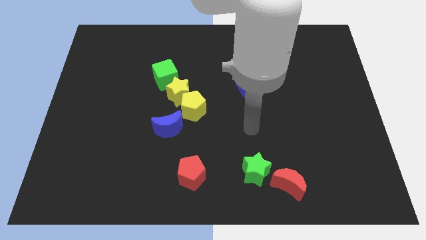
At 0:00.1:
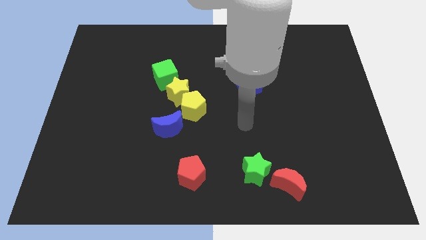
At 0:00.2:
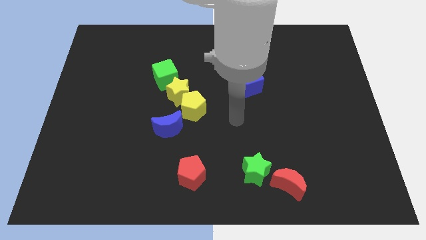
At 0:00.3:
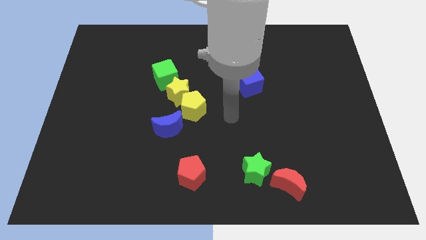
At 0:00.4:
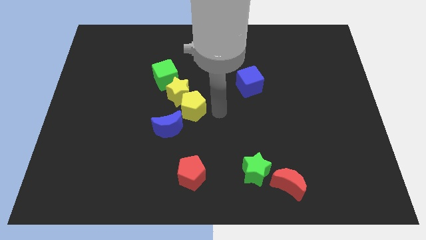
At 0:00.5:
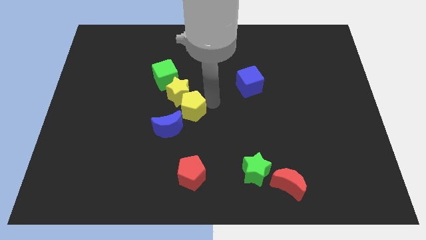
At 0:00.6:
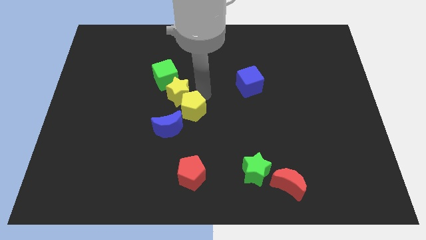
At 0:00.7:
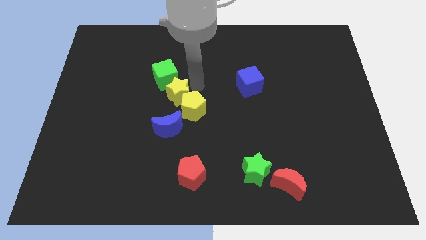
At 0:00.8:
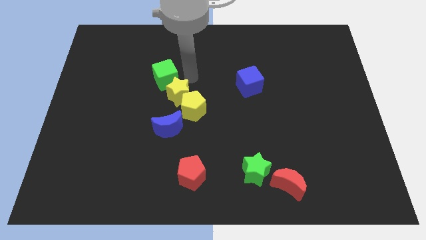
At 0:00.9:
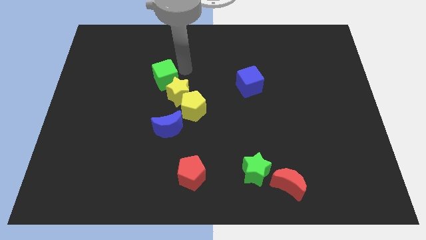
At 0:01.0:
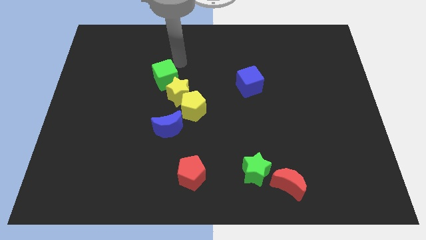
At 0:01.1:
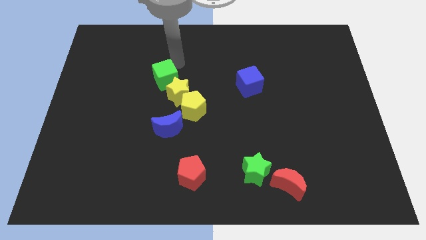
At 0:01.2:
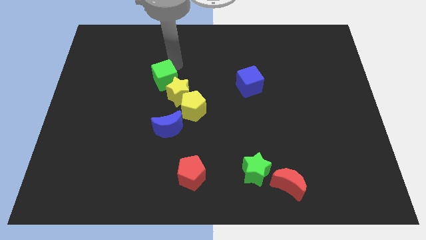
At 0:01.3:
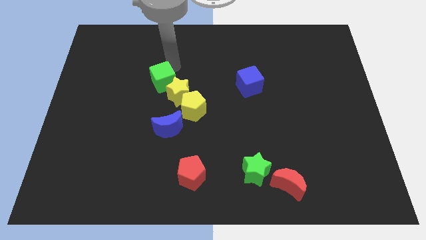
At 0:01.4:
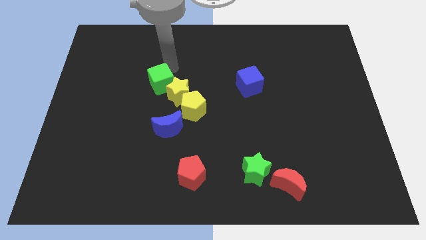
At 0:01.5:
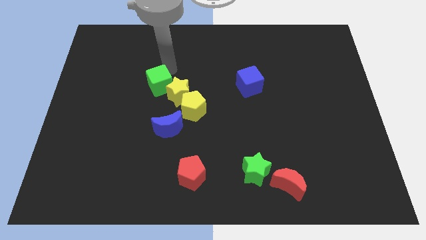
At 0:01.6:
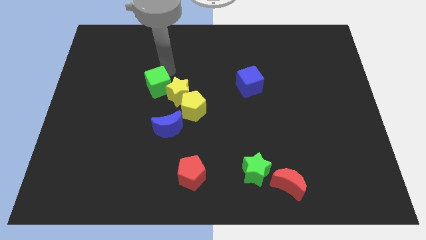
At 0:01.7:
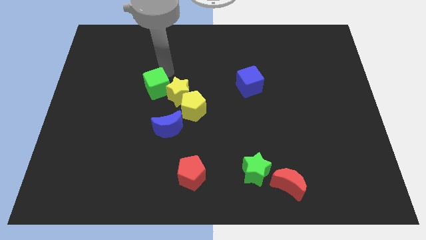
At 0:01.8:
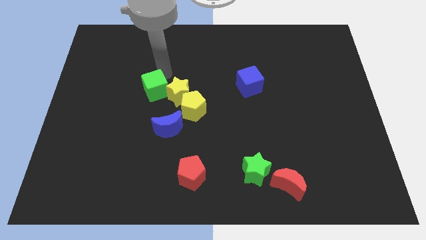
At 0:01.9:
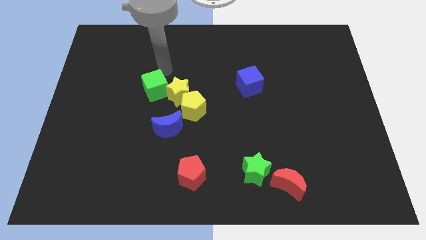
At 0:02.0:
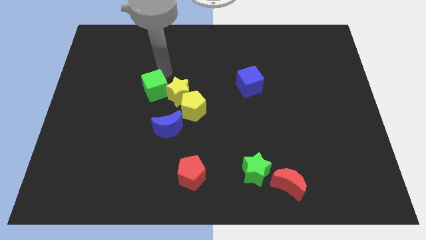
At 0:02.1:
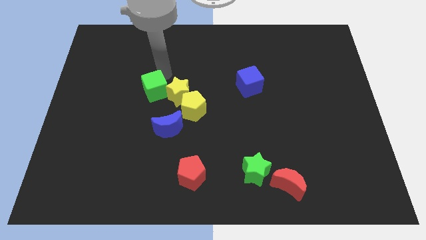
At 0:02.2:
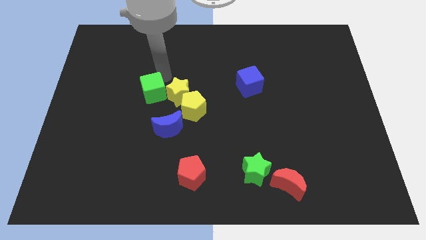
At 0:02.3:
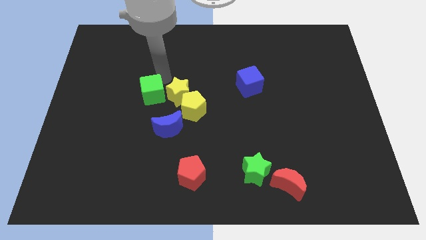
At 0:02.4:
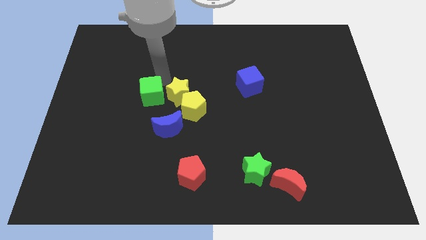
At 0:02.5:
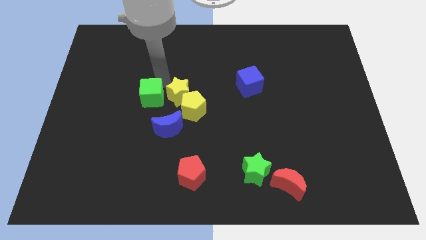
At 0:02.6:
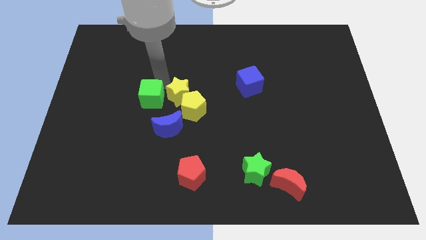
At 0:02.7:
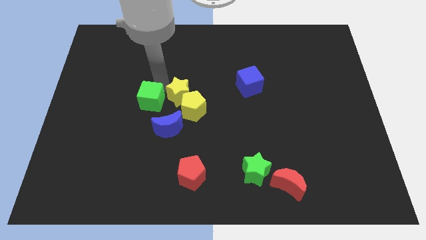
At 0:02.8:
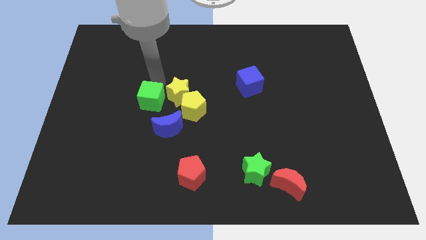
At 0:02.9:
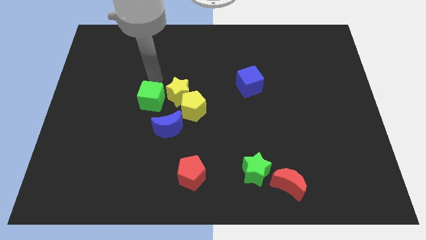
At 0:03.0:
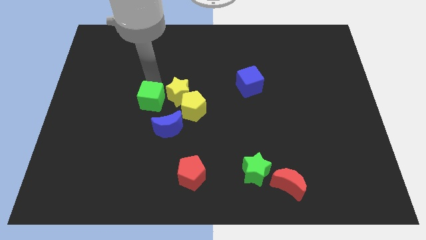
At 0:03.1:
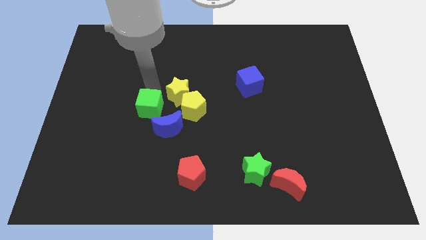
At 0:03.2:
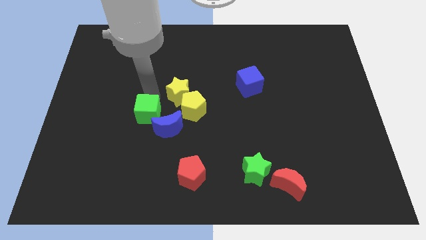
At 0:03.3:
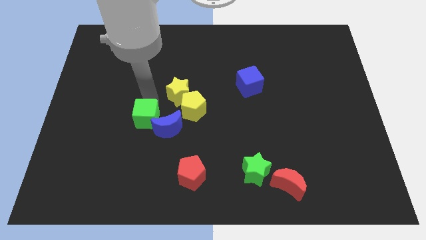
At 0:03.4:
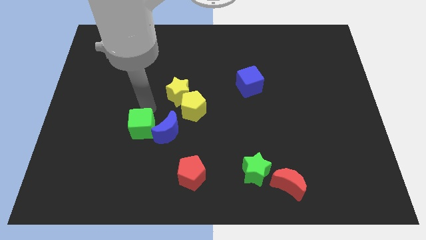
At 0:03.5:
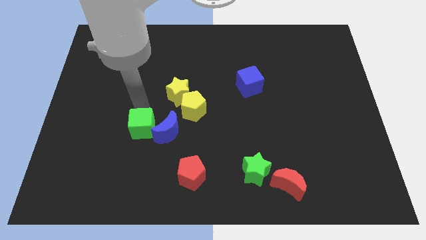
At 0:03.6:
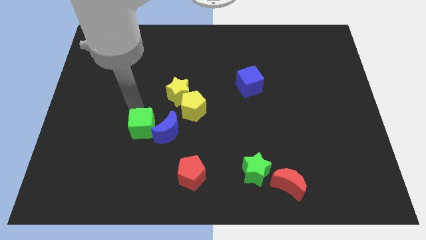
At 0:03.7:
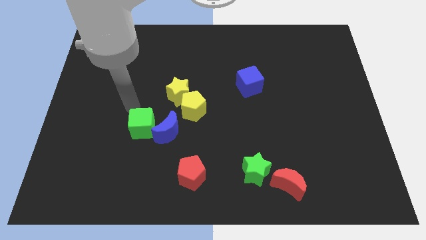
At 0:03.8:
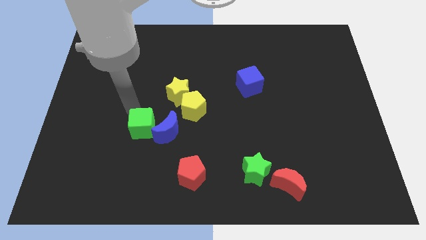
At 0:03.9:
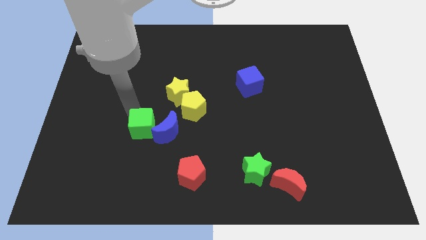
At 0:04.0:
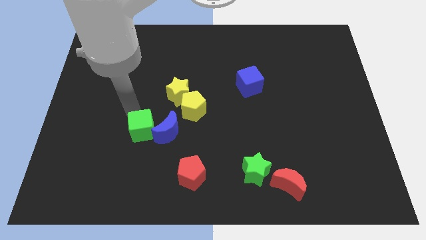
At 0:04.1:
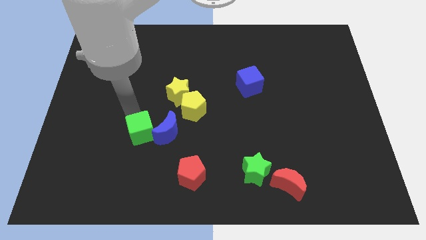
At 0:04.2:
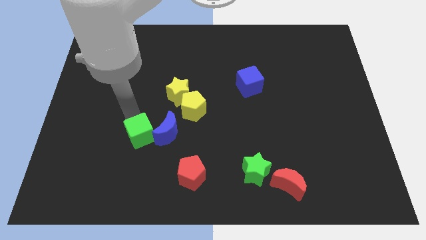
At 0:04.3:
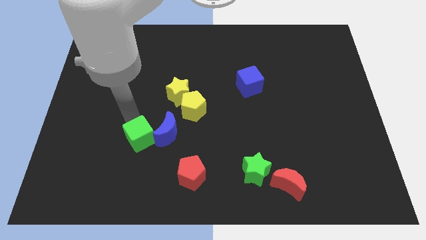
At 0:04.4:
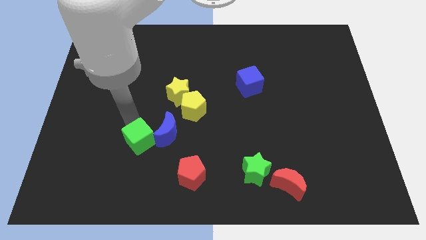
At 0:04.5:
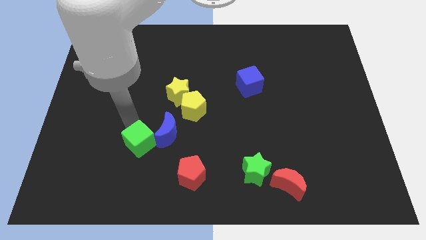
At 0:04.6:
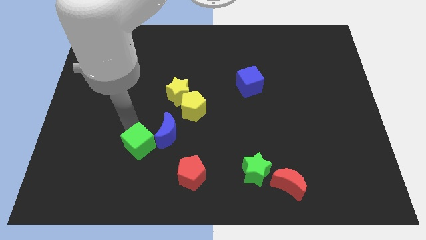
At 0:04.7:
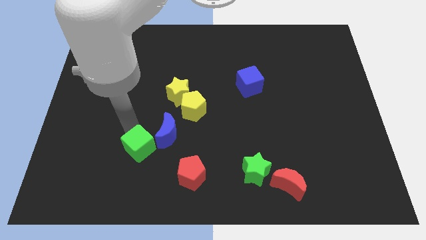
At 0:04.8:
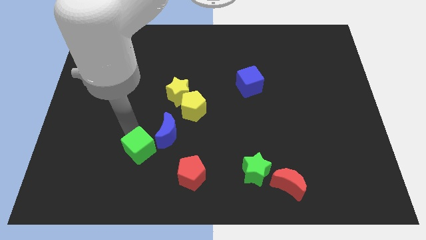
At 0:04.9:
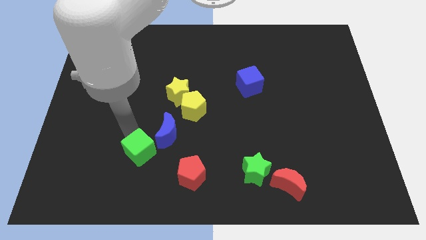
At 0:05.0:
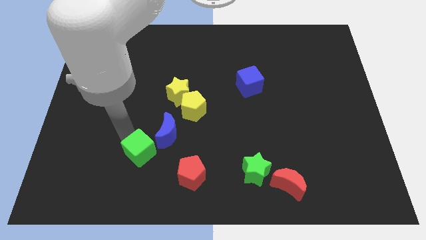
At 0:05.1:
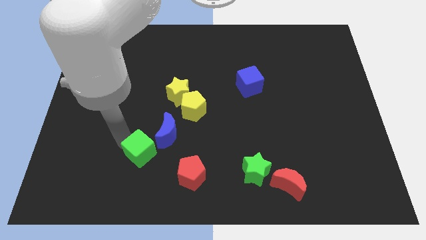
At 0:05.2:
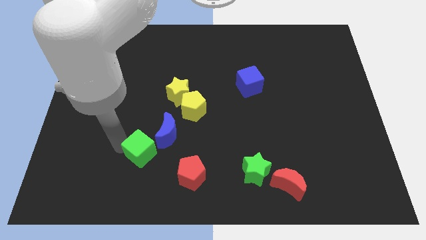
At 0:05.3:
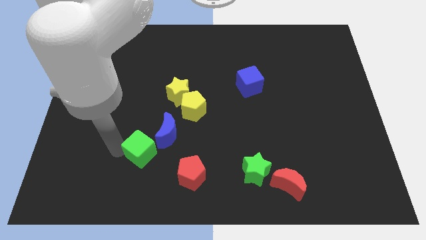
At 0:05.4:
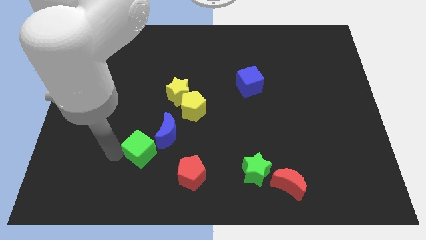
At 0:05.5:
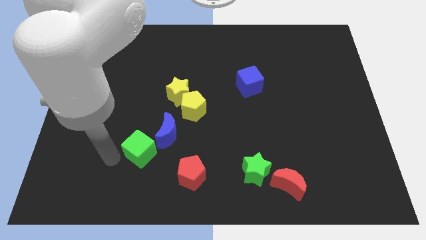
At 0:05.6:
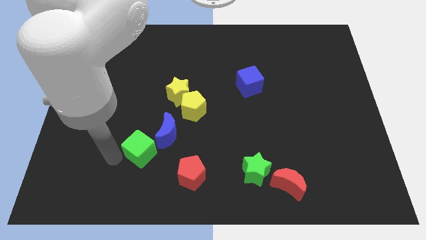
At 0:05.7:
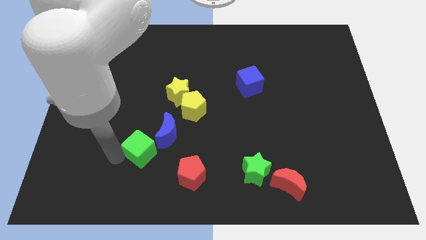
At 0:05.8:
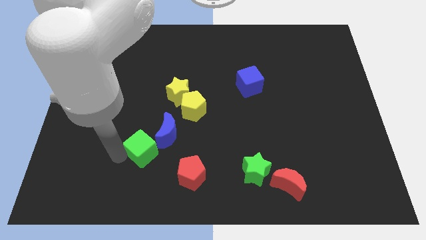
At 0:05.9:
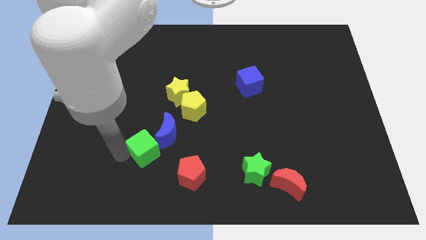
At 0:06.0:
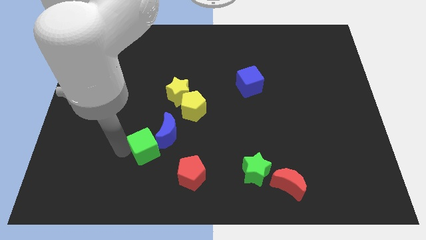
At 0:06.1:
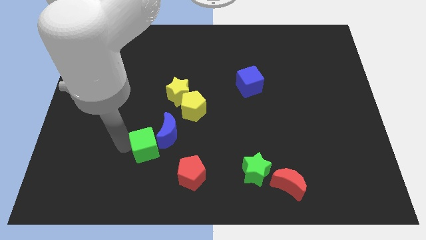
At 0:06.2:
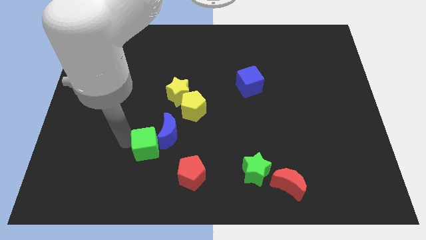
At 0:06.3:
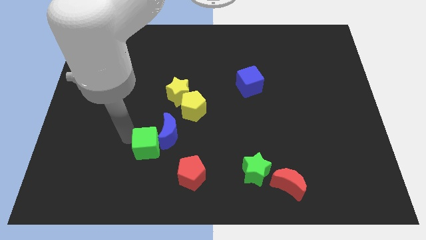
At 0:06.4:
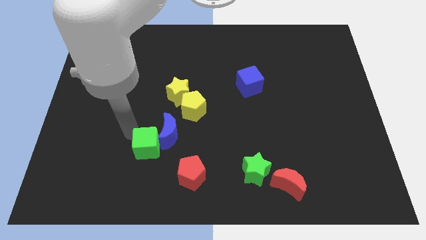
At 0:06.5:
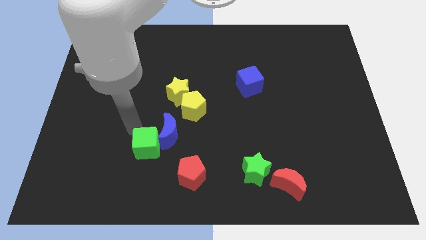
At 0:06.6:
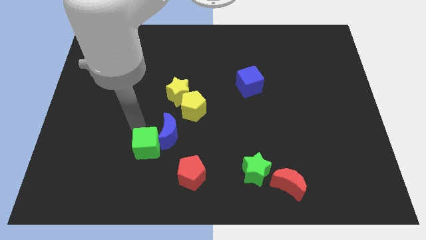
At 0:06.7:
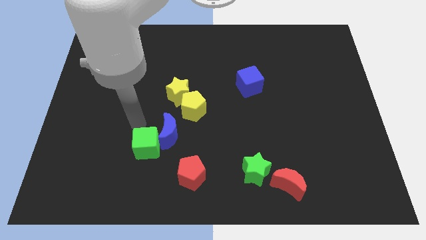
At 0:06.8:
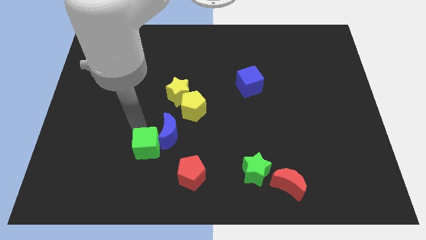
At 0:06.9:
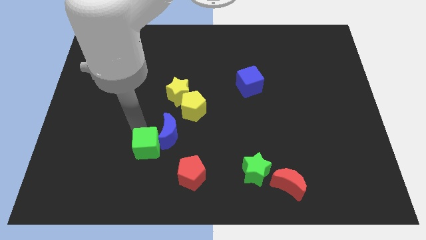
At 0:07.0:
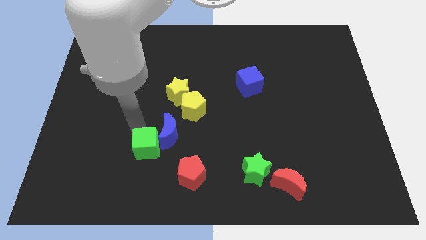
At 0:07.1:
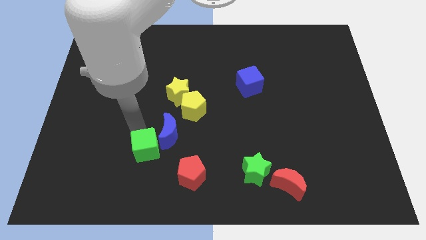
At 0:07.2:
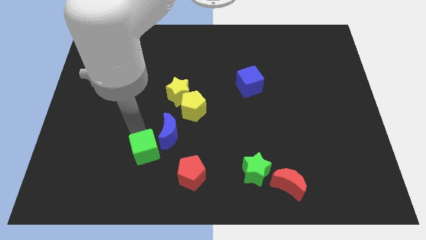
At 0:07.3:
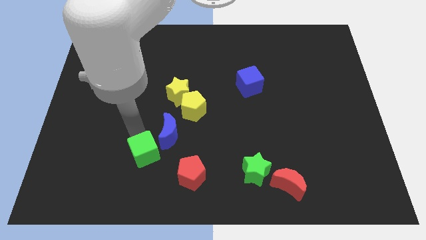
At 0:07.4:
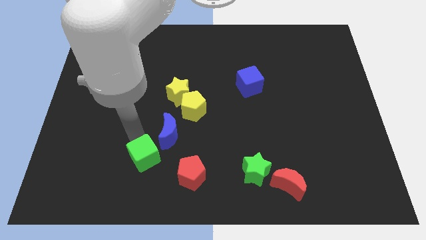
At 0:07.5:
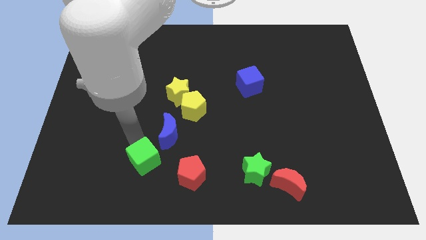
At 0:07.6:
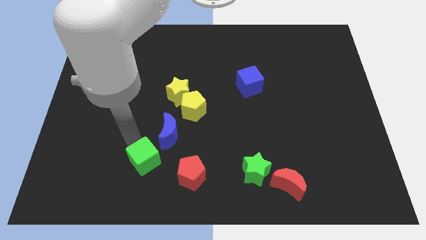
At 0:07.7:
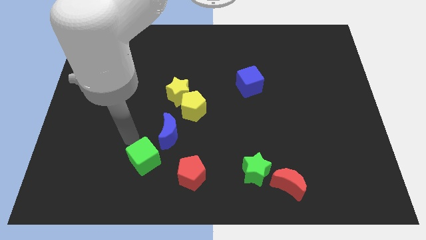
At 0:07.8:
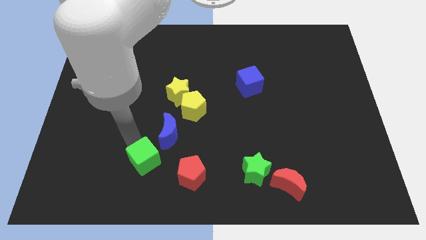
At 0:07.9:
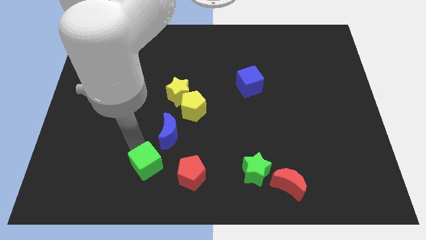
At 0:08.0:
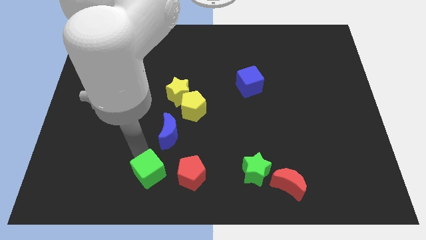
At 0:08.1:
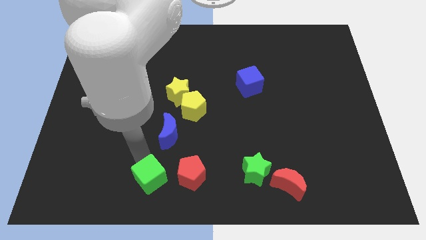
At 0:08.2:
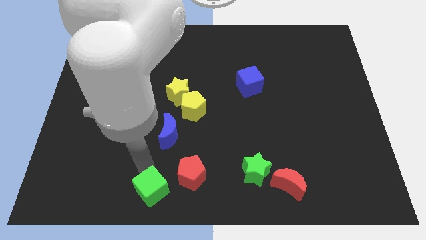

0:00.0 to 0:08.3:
put the green cube to the bottom
